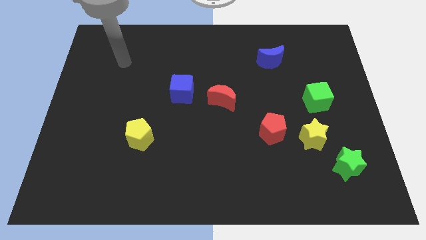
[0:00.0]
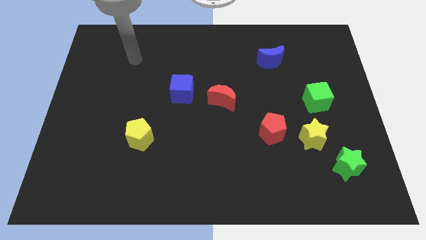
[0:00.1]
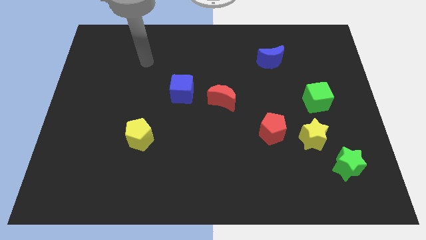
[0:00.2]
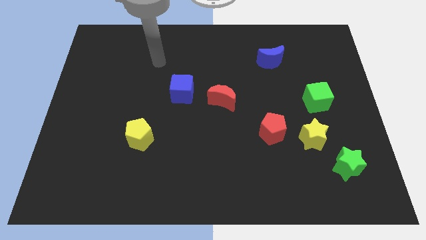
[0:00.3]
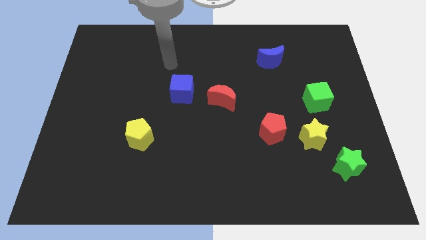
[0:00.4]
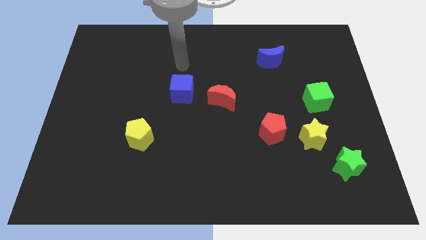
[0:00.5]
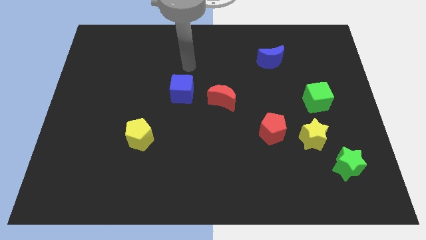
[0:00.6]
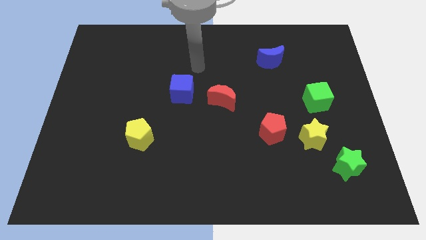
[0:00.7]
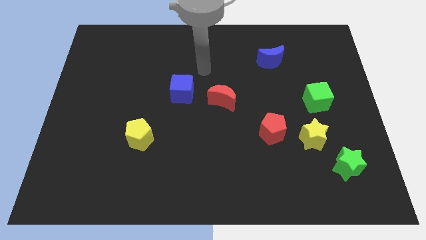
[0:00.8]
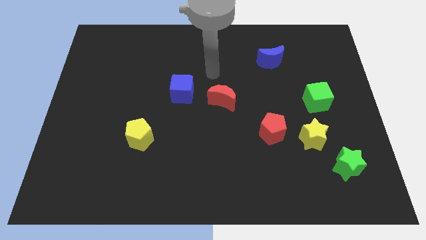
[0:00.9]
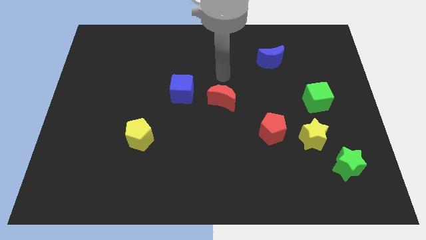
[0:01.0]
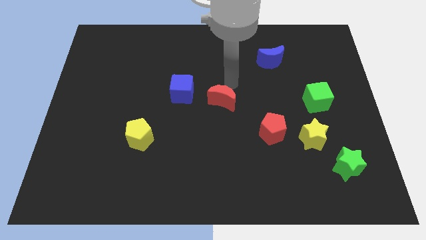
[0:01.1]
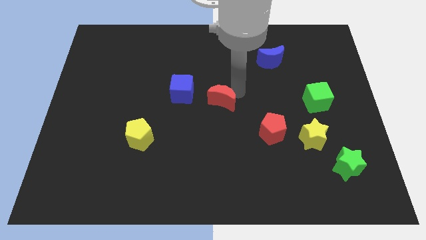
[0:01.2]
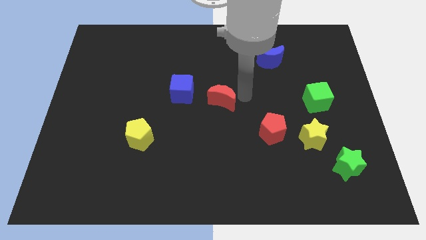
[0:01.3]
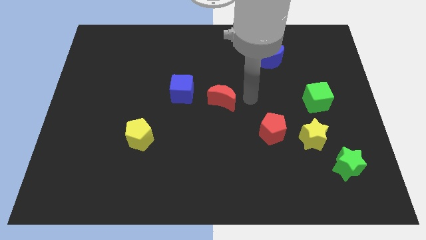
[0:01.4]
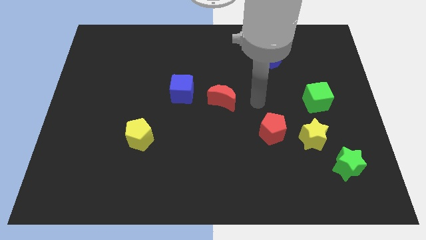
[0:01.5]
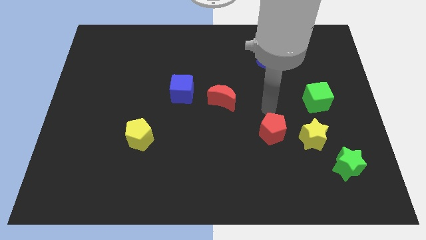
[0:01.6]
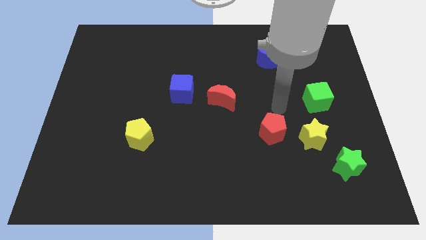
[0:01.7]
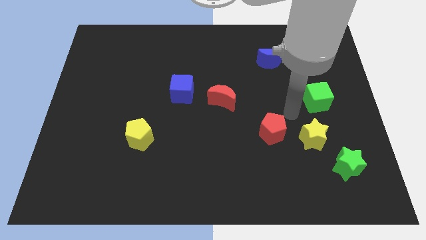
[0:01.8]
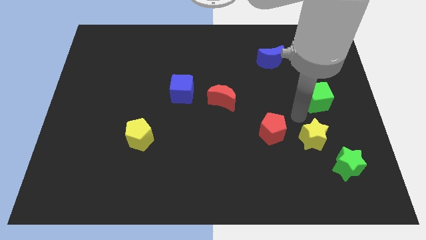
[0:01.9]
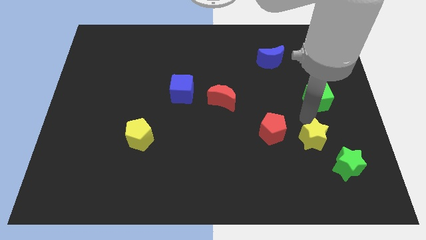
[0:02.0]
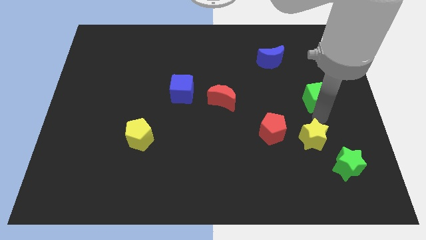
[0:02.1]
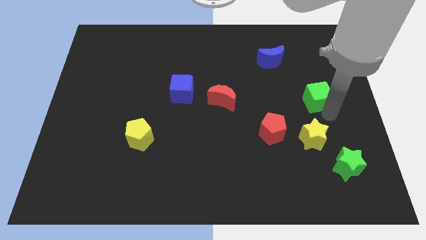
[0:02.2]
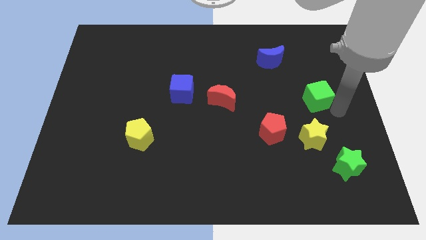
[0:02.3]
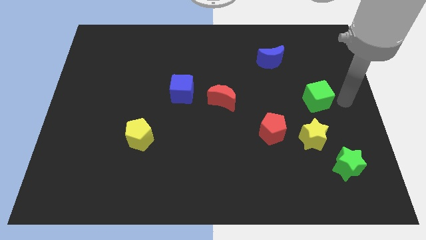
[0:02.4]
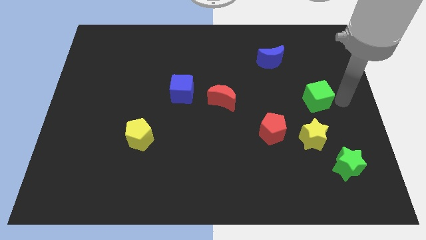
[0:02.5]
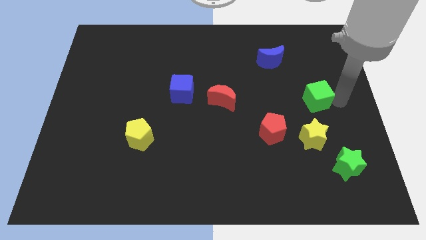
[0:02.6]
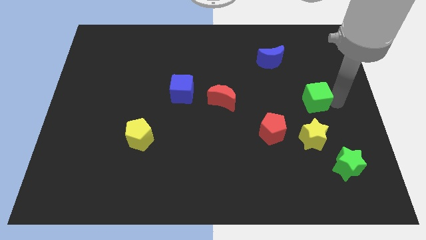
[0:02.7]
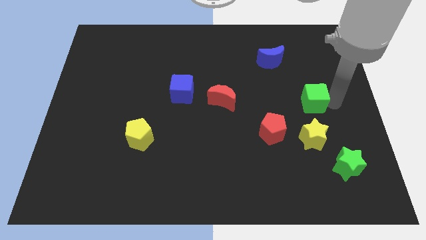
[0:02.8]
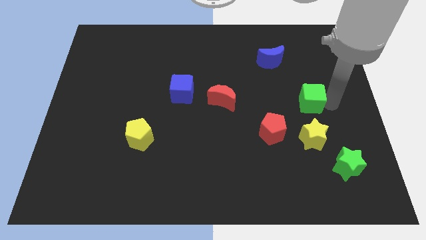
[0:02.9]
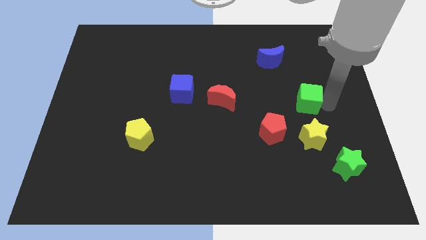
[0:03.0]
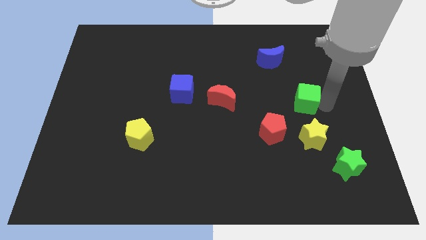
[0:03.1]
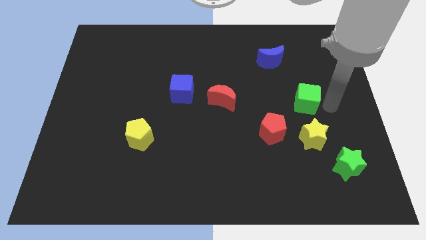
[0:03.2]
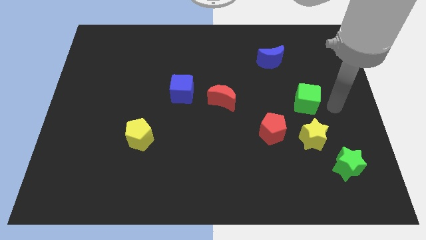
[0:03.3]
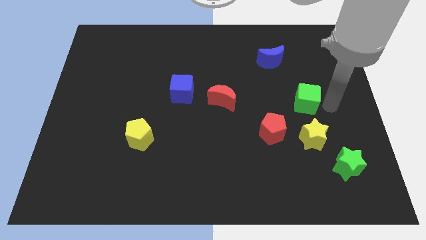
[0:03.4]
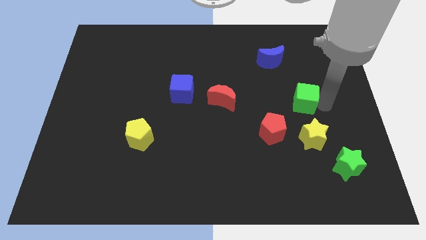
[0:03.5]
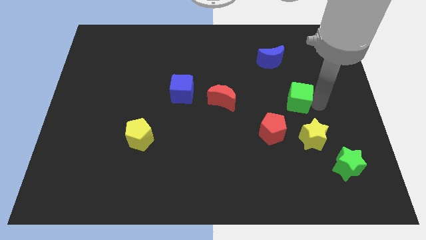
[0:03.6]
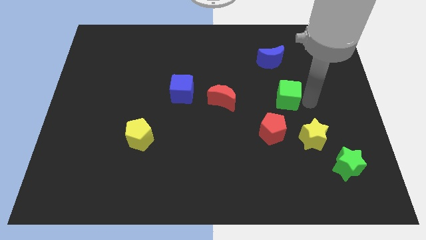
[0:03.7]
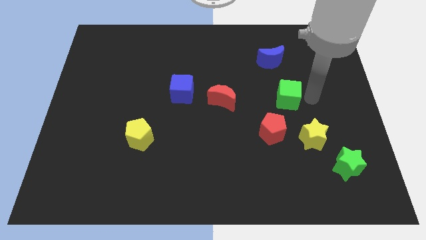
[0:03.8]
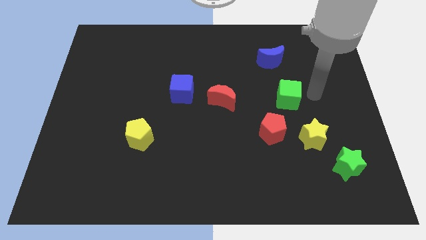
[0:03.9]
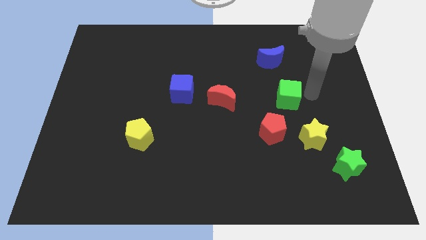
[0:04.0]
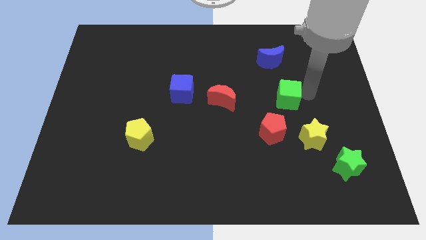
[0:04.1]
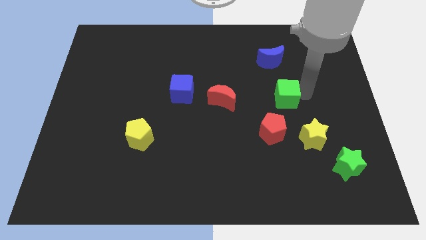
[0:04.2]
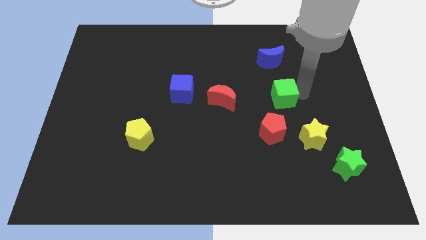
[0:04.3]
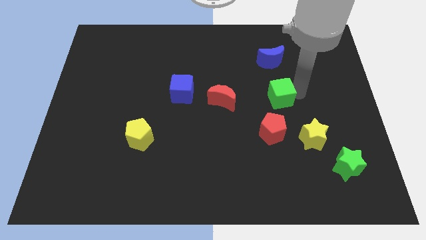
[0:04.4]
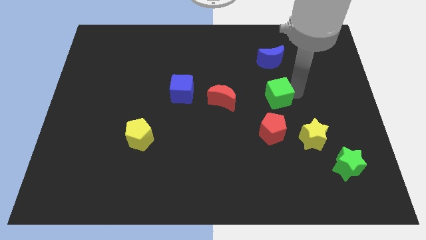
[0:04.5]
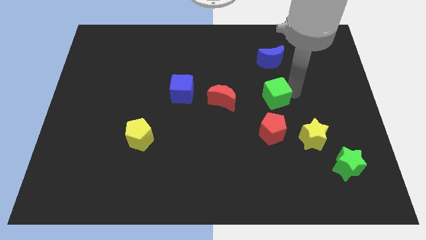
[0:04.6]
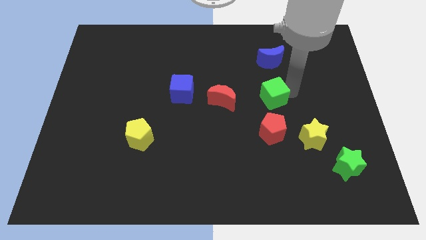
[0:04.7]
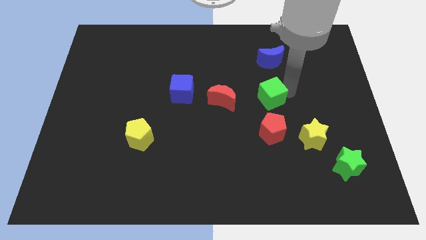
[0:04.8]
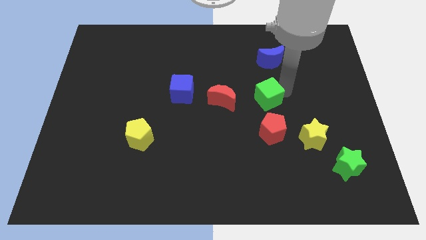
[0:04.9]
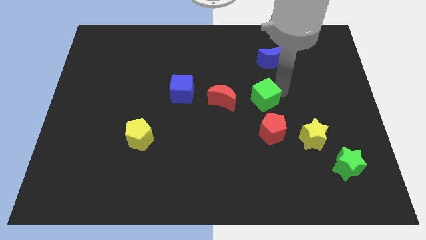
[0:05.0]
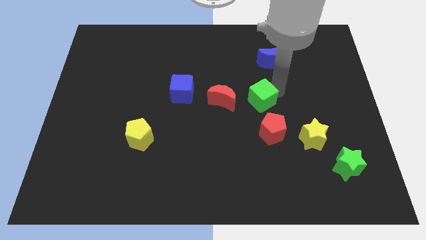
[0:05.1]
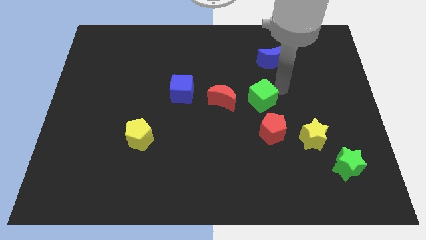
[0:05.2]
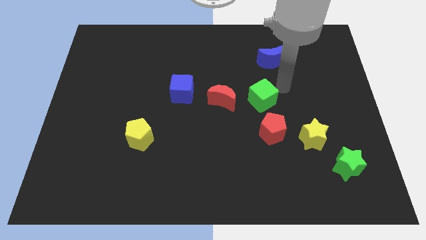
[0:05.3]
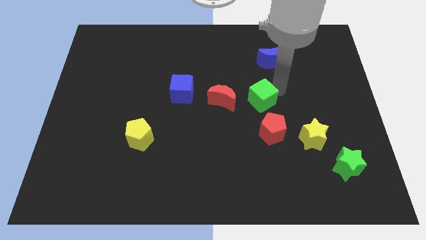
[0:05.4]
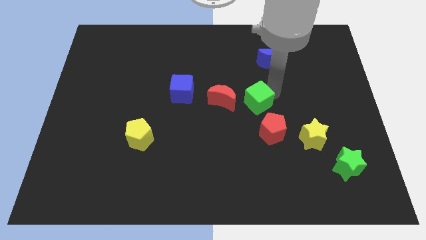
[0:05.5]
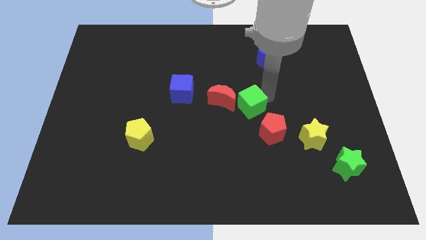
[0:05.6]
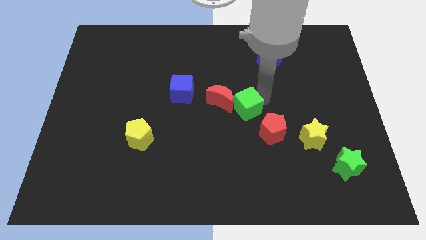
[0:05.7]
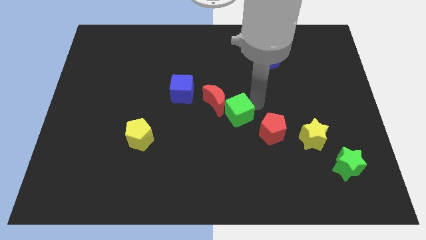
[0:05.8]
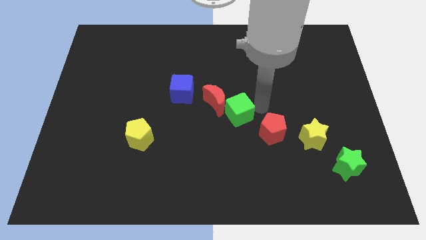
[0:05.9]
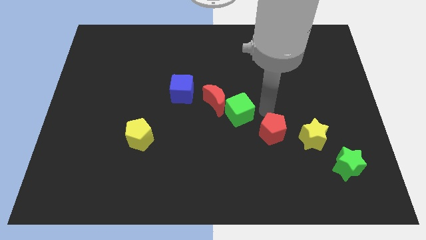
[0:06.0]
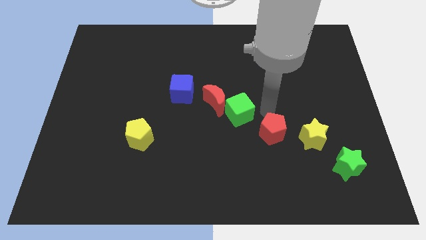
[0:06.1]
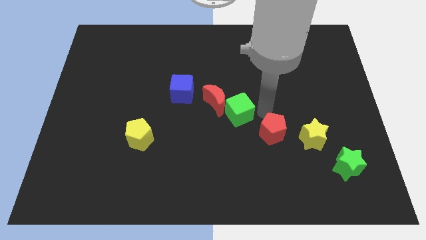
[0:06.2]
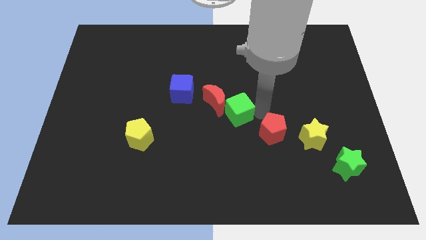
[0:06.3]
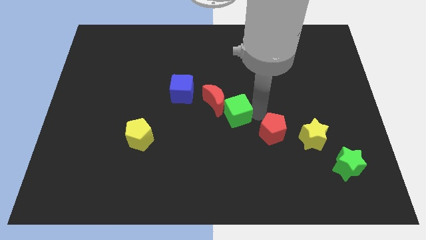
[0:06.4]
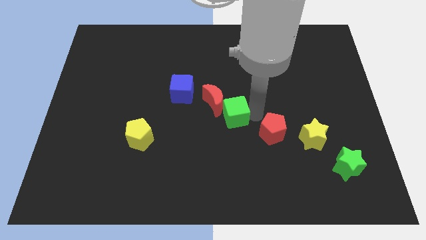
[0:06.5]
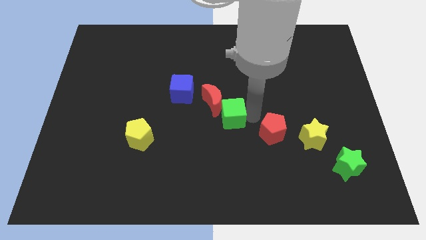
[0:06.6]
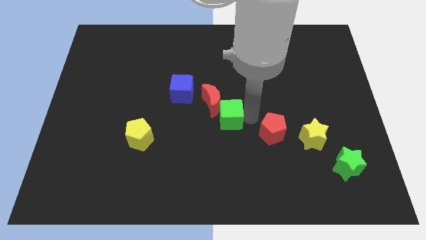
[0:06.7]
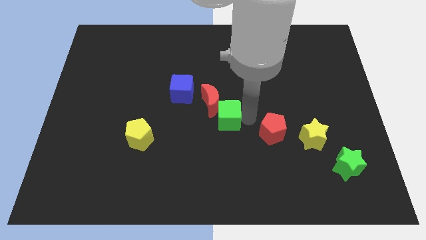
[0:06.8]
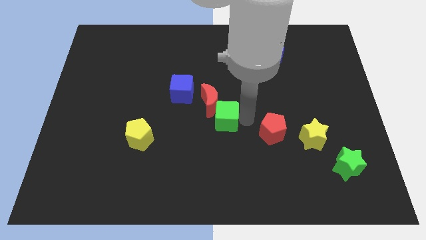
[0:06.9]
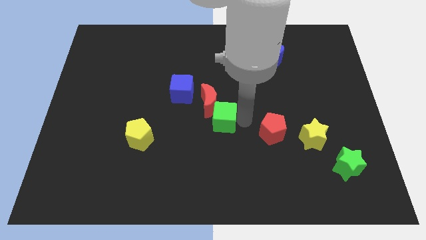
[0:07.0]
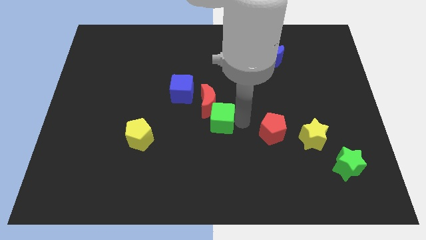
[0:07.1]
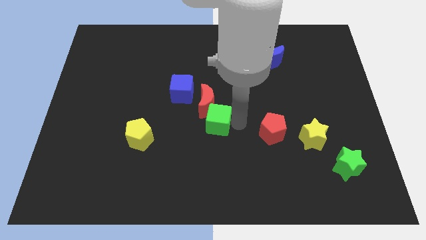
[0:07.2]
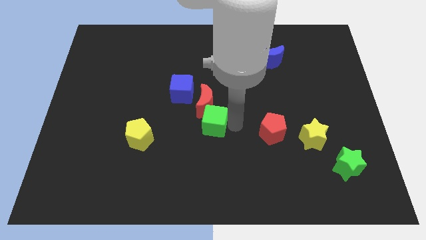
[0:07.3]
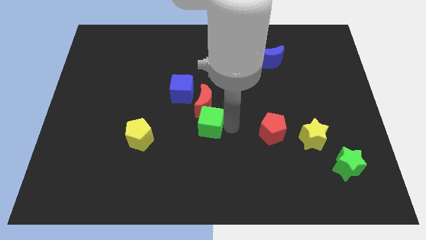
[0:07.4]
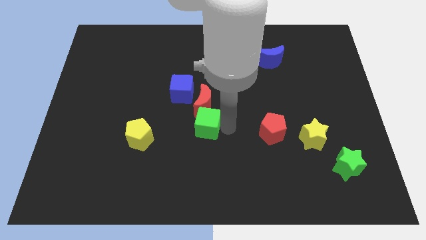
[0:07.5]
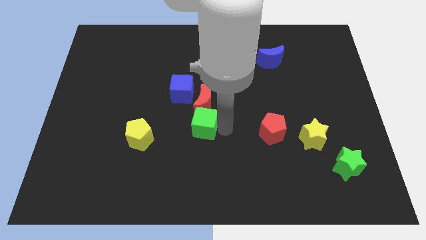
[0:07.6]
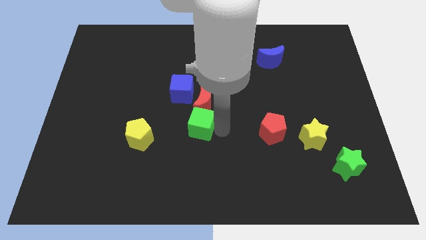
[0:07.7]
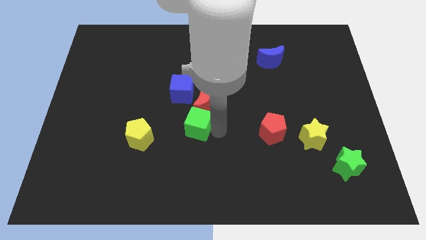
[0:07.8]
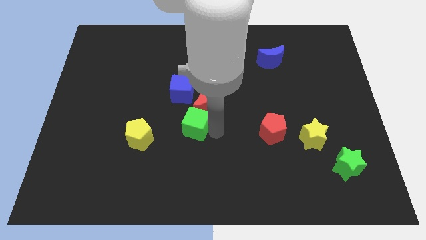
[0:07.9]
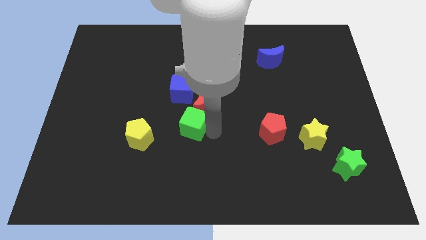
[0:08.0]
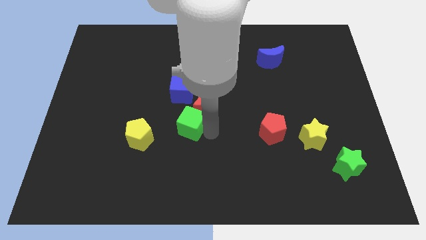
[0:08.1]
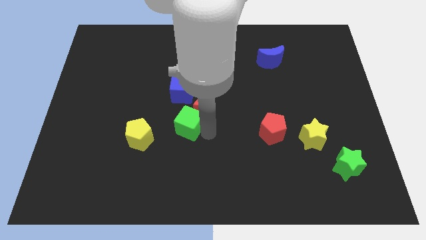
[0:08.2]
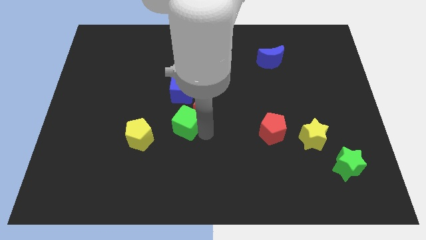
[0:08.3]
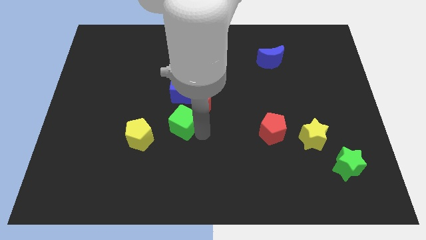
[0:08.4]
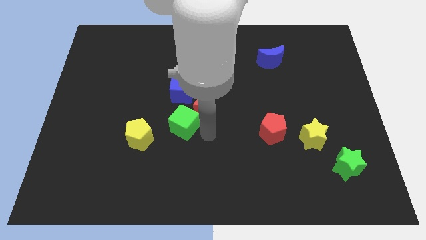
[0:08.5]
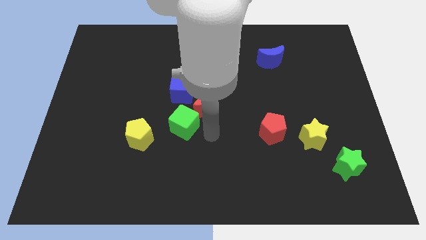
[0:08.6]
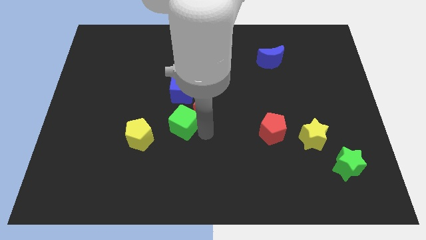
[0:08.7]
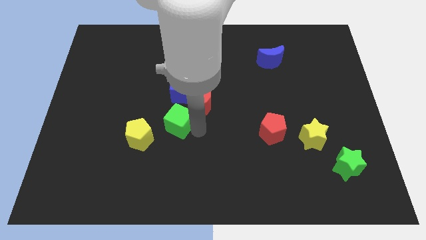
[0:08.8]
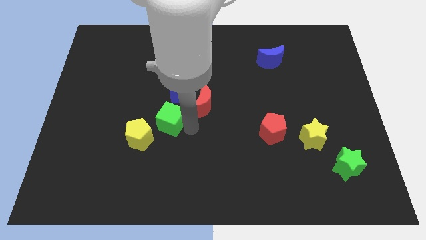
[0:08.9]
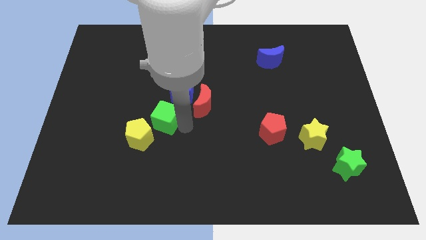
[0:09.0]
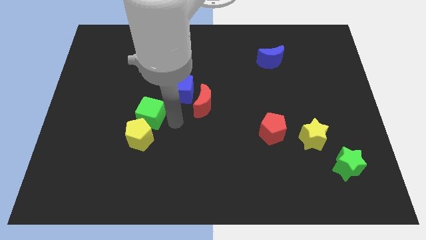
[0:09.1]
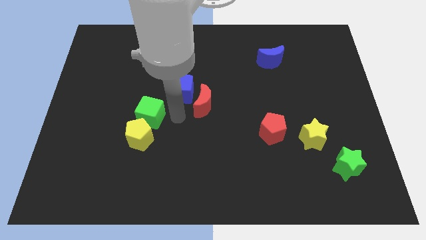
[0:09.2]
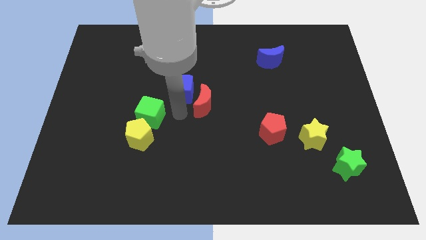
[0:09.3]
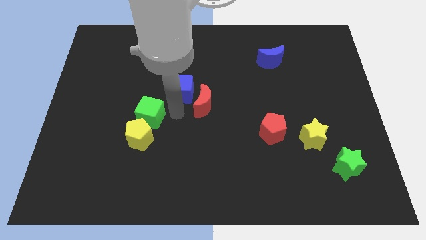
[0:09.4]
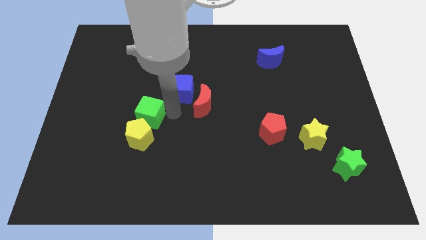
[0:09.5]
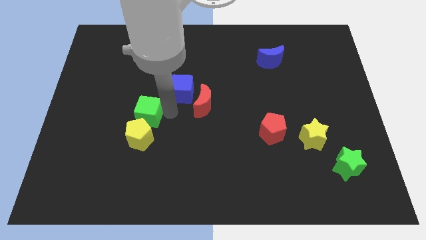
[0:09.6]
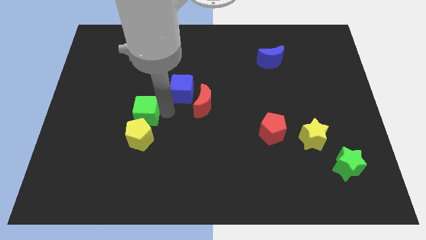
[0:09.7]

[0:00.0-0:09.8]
slide the green cube diagonally up and to the left of the yellow pentagon
